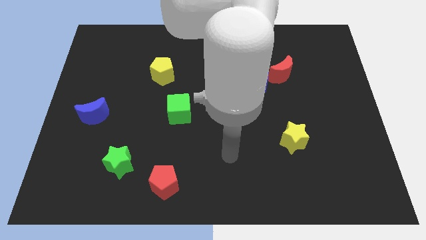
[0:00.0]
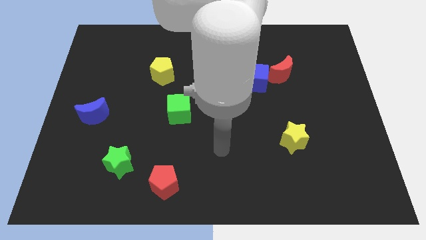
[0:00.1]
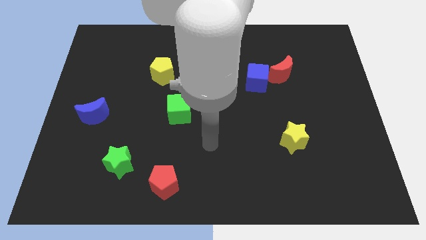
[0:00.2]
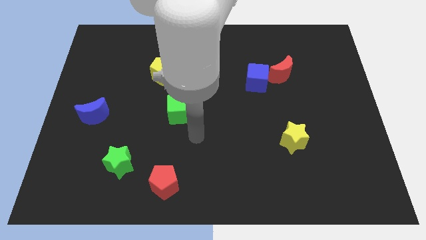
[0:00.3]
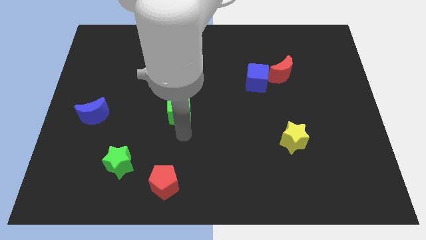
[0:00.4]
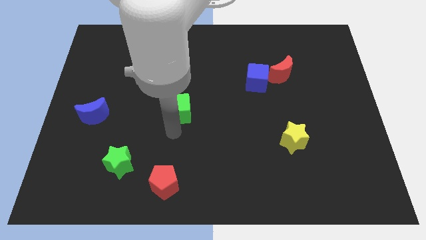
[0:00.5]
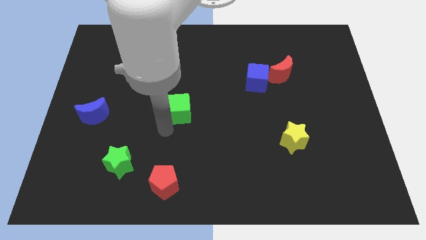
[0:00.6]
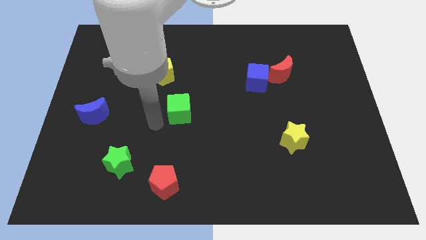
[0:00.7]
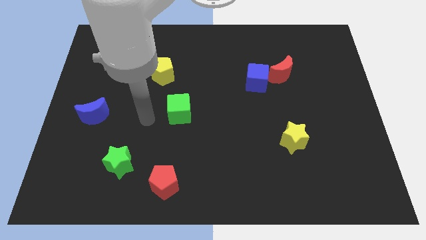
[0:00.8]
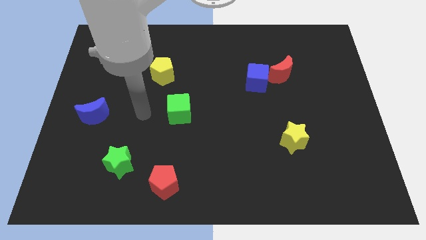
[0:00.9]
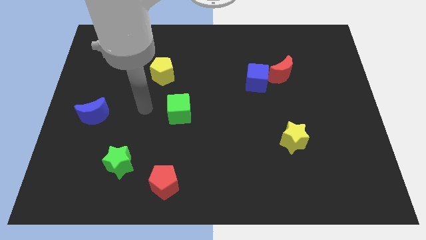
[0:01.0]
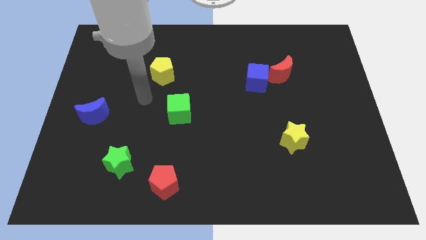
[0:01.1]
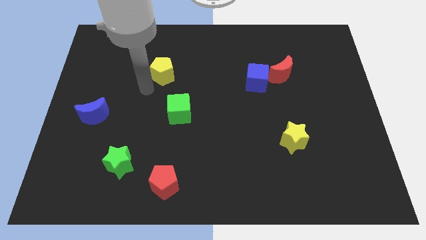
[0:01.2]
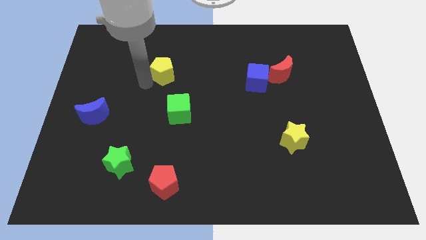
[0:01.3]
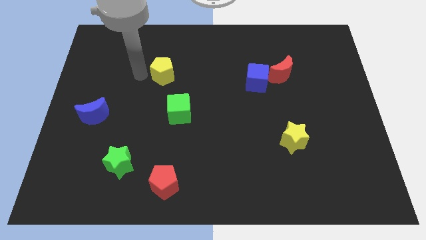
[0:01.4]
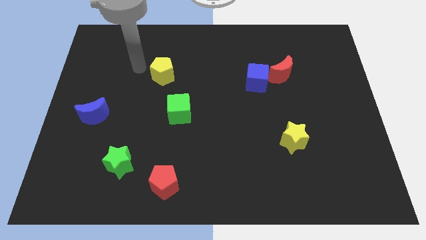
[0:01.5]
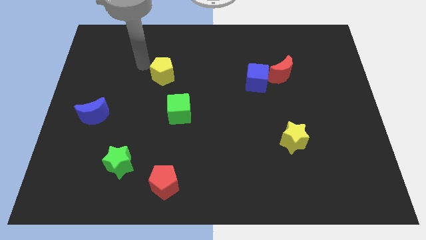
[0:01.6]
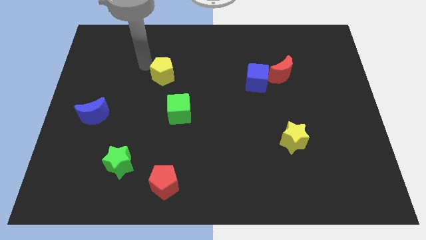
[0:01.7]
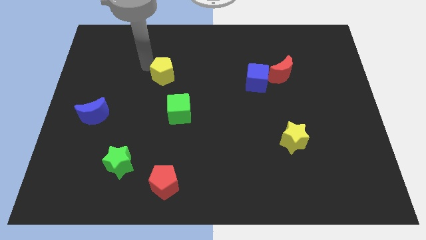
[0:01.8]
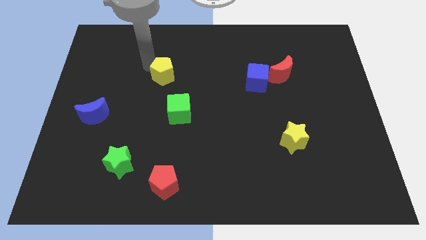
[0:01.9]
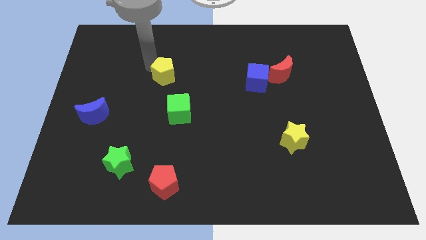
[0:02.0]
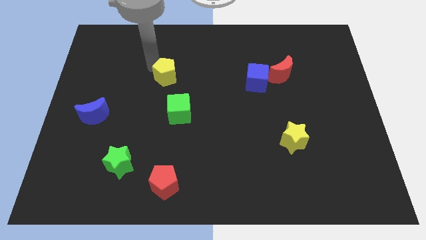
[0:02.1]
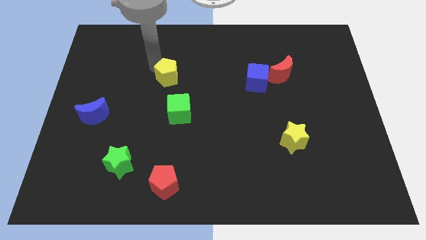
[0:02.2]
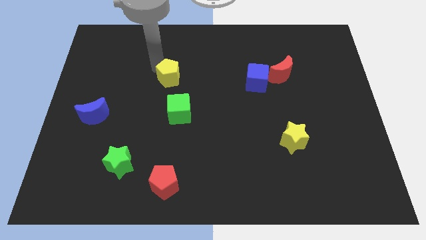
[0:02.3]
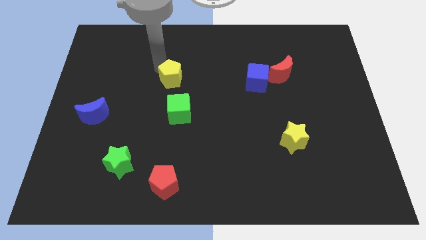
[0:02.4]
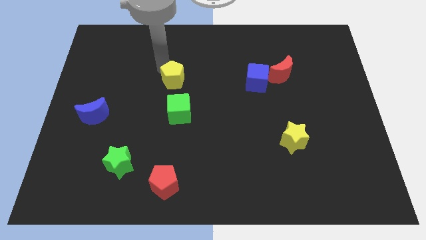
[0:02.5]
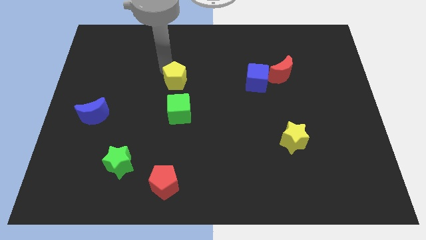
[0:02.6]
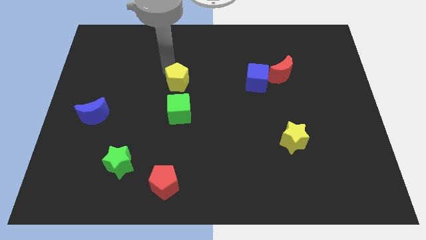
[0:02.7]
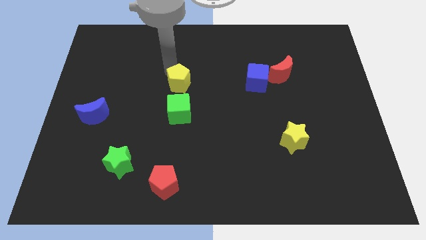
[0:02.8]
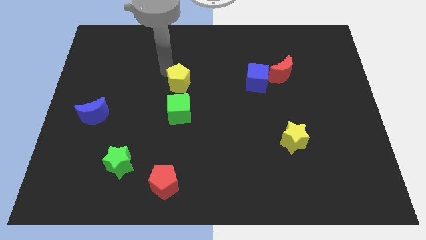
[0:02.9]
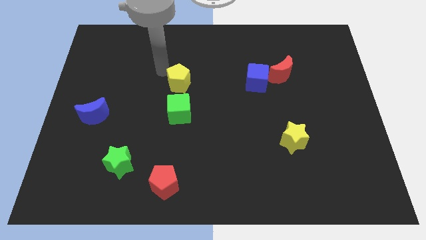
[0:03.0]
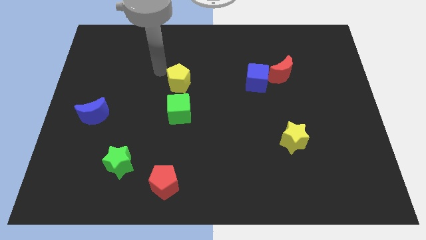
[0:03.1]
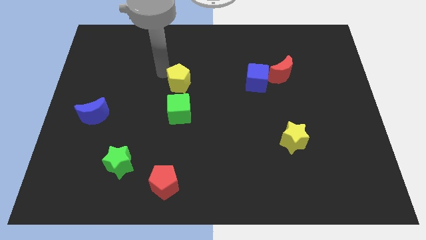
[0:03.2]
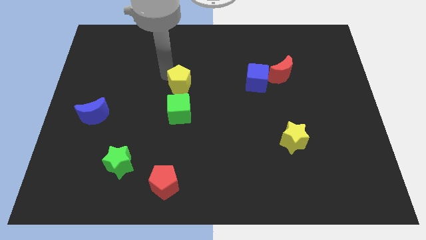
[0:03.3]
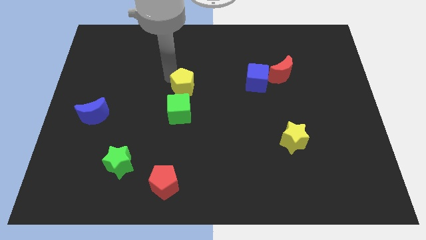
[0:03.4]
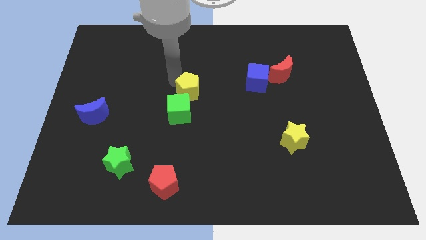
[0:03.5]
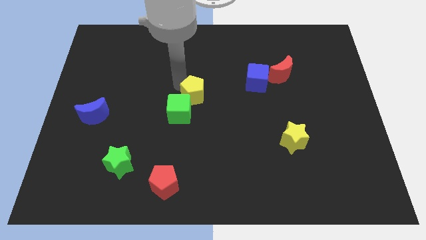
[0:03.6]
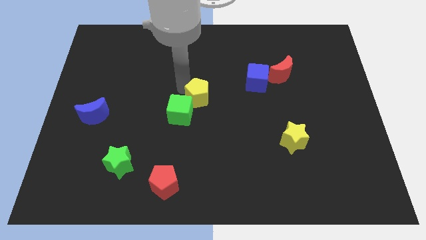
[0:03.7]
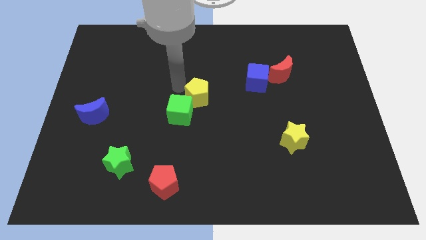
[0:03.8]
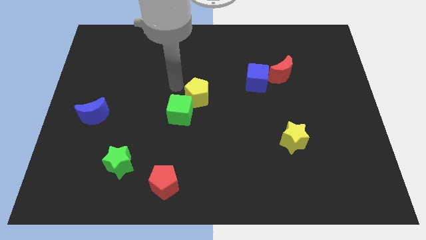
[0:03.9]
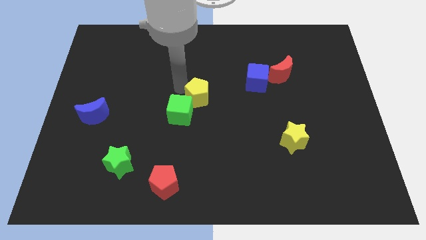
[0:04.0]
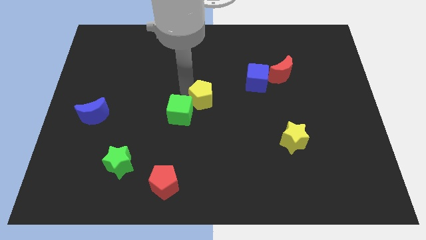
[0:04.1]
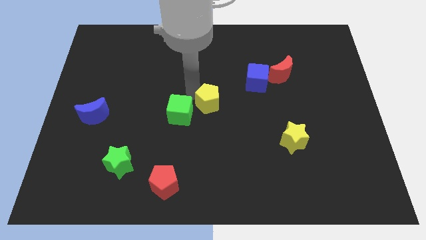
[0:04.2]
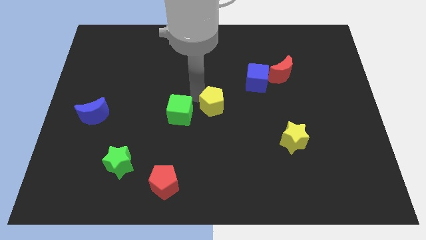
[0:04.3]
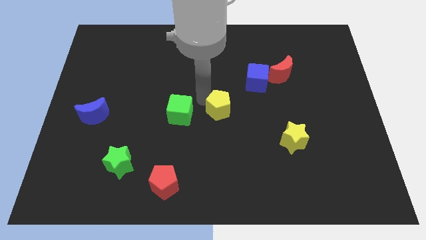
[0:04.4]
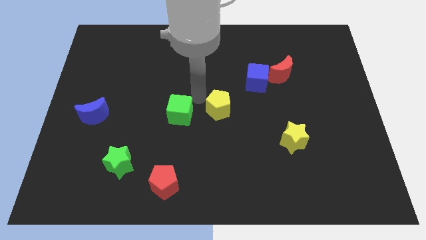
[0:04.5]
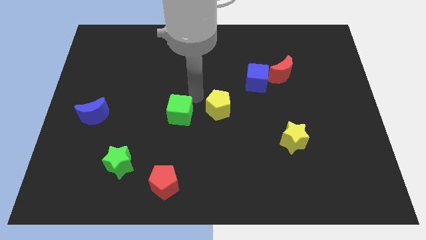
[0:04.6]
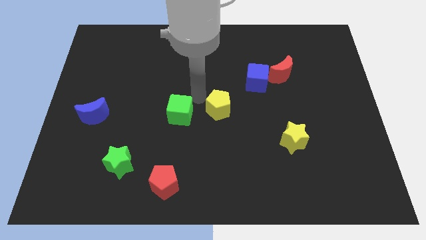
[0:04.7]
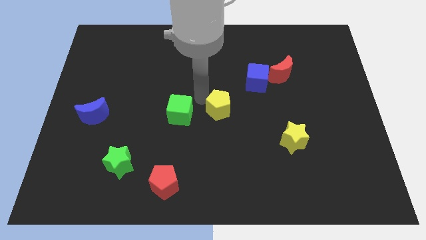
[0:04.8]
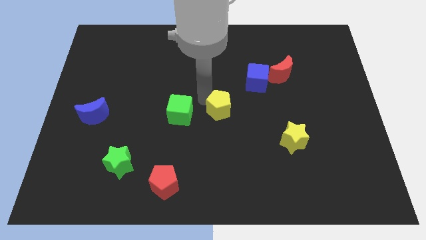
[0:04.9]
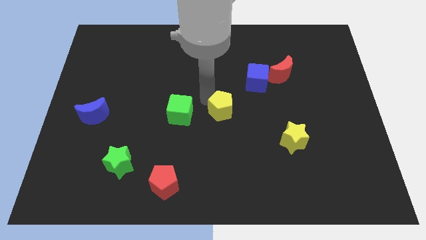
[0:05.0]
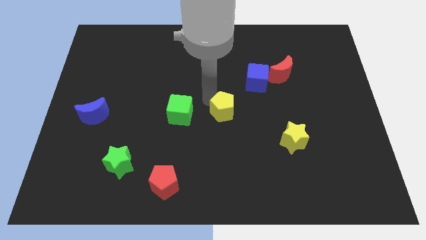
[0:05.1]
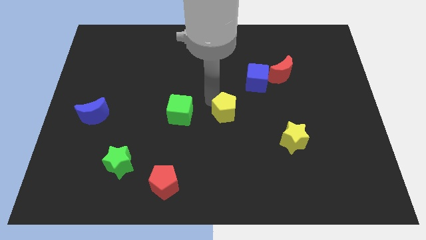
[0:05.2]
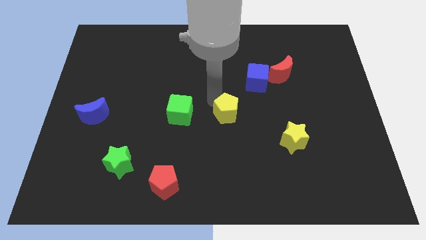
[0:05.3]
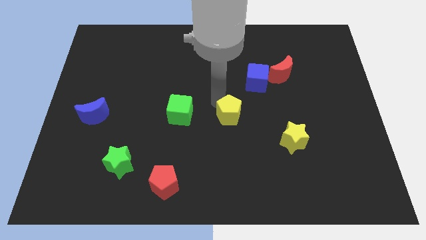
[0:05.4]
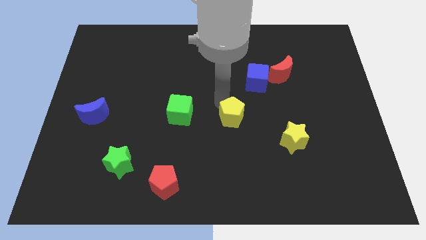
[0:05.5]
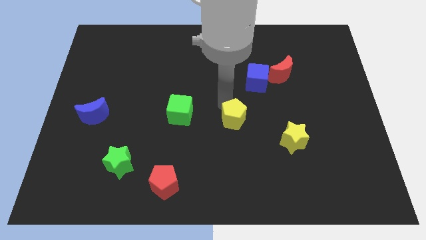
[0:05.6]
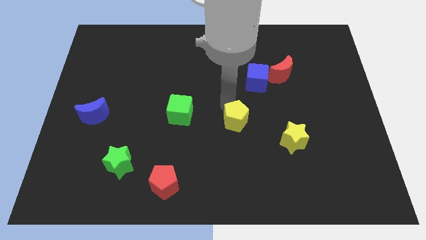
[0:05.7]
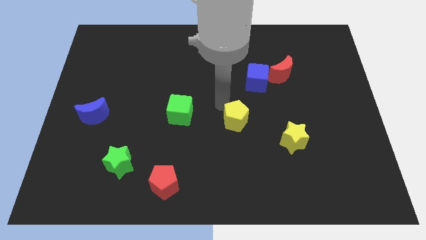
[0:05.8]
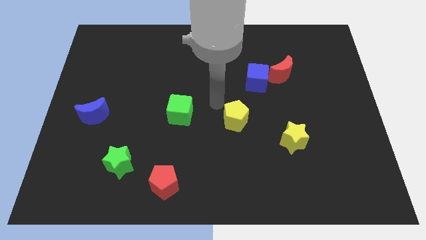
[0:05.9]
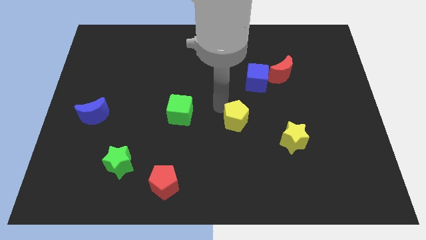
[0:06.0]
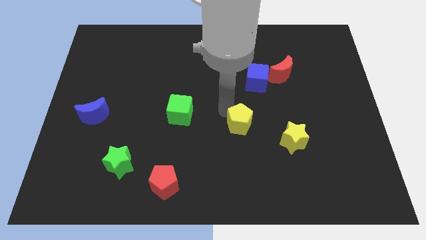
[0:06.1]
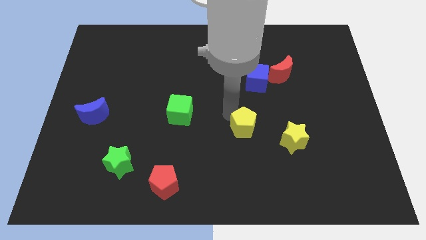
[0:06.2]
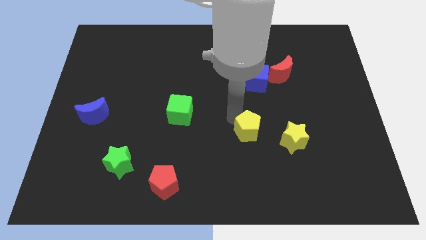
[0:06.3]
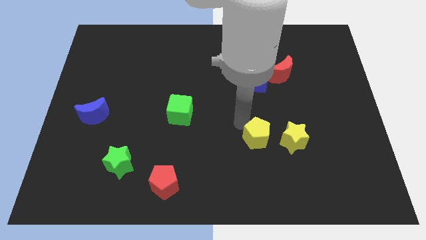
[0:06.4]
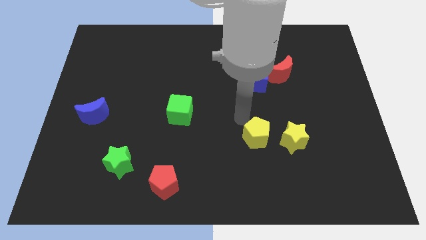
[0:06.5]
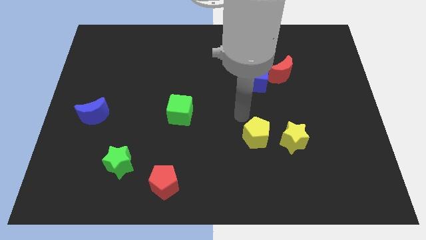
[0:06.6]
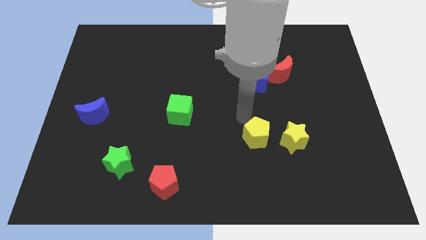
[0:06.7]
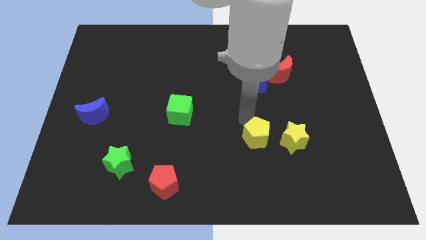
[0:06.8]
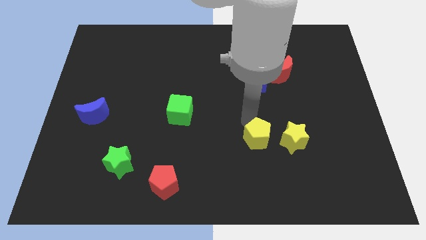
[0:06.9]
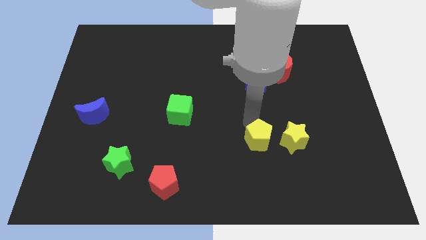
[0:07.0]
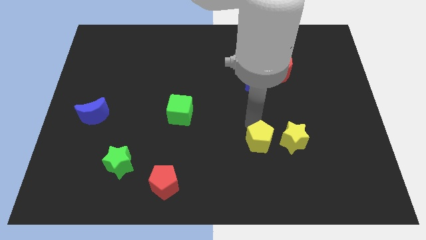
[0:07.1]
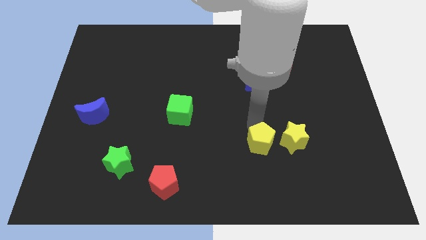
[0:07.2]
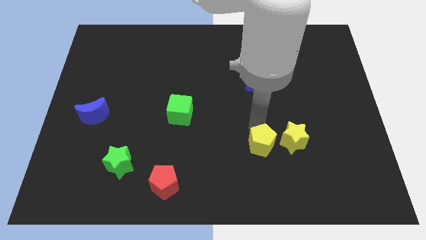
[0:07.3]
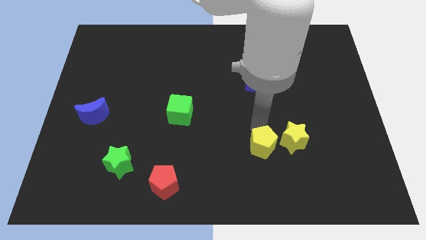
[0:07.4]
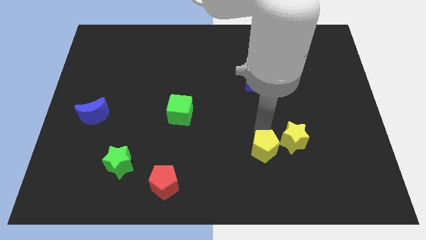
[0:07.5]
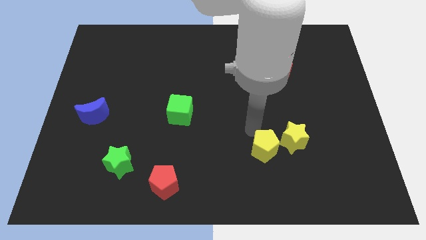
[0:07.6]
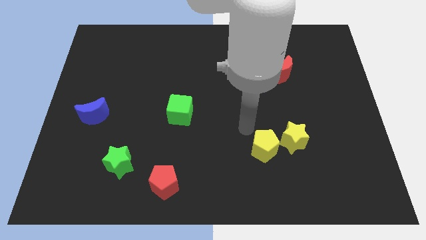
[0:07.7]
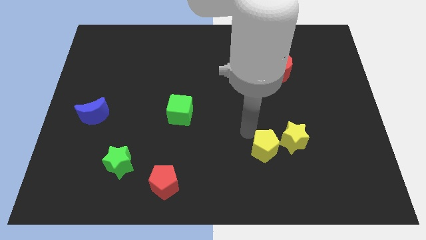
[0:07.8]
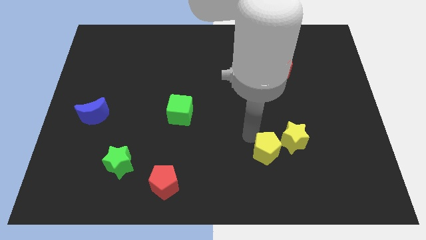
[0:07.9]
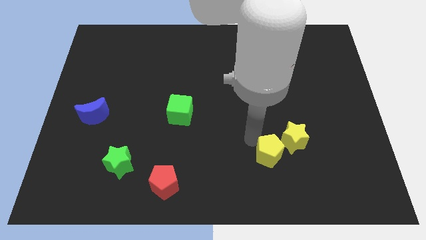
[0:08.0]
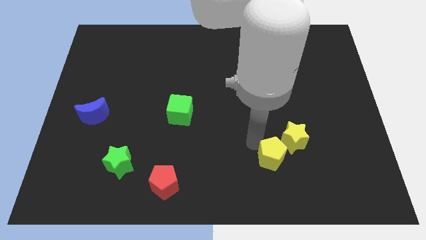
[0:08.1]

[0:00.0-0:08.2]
move the yellow pentagon to the bottom side of the yellow star
